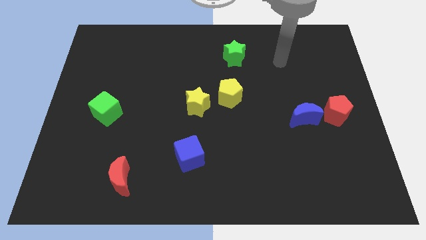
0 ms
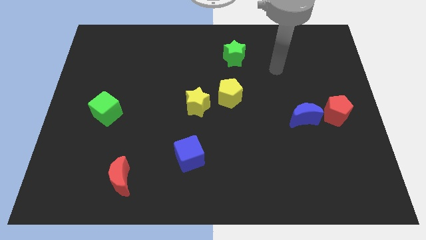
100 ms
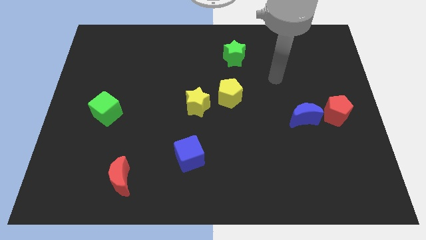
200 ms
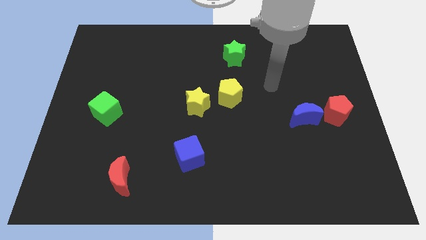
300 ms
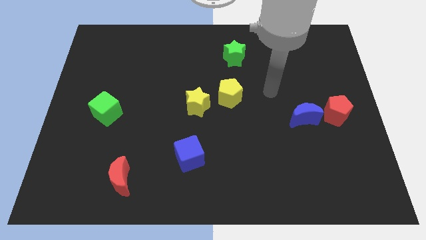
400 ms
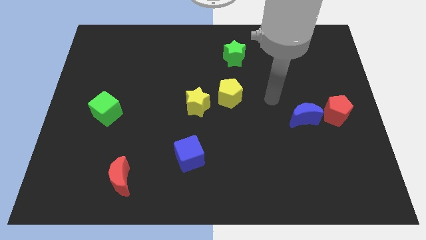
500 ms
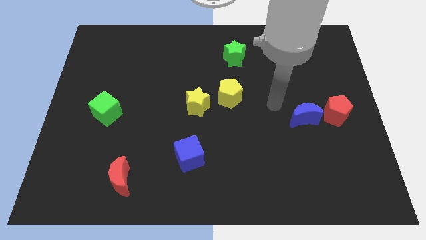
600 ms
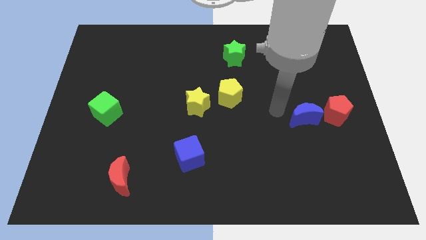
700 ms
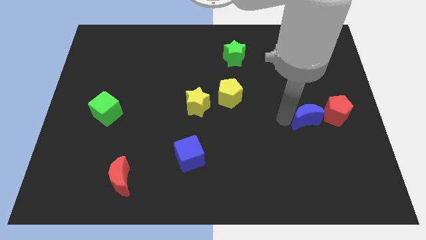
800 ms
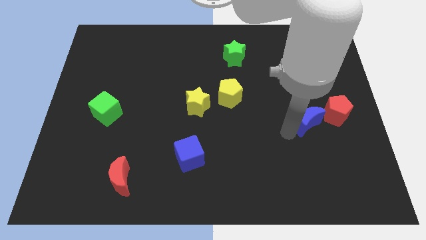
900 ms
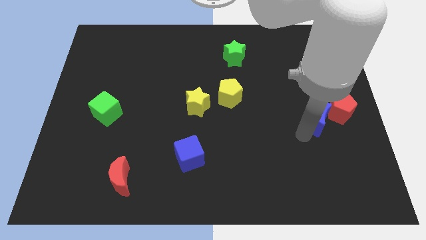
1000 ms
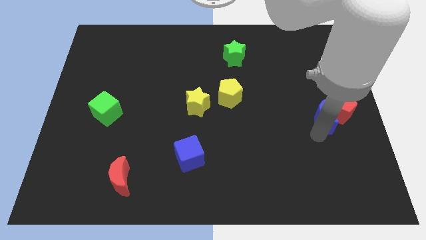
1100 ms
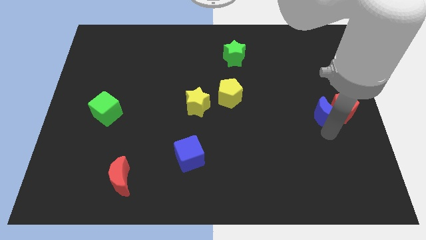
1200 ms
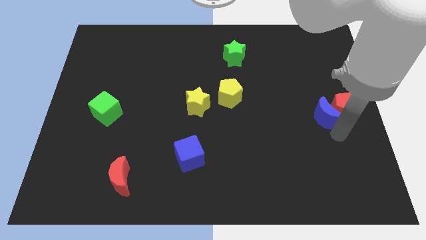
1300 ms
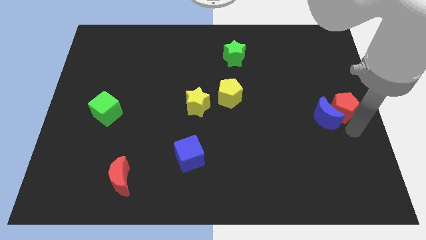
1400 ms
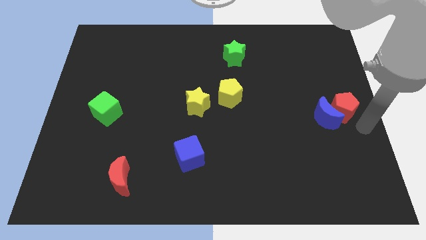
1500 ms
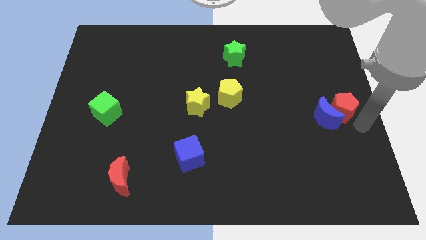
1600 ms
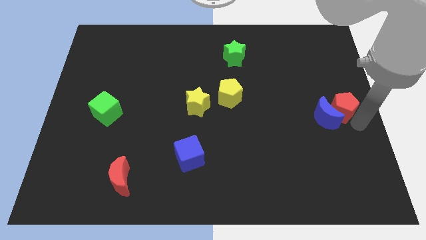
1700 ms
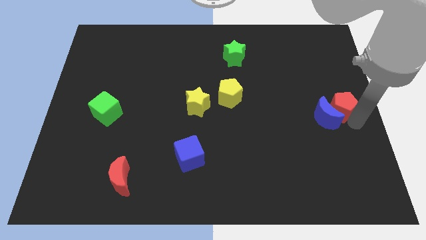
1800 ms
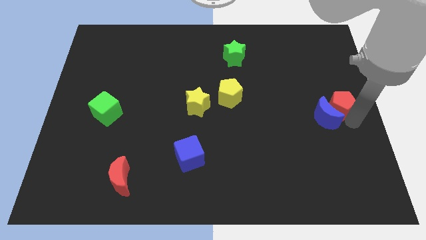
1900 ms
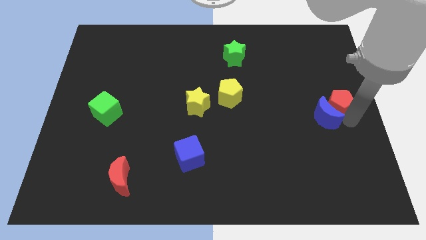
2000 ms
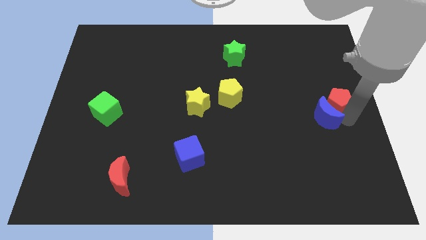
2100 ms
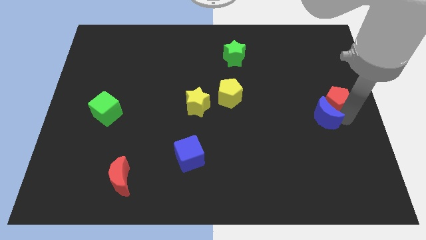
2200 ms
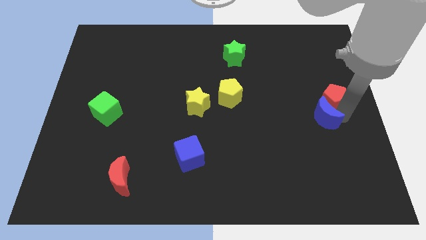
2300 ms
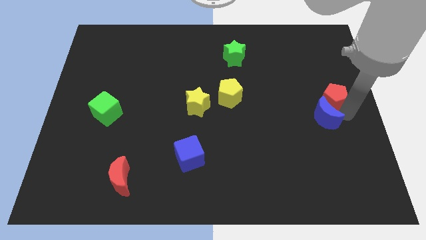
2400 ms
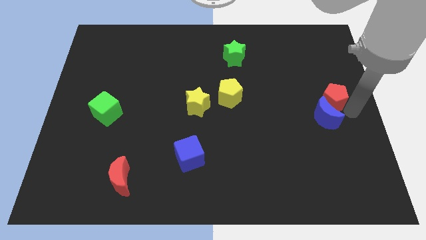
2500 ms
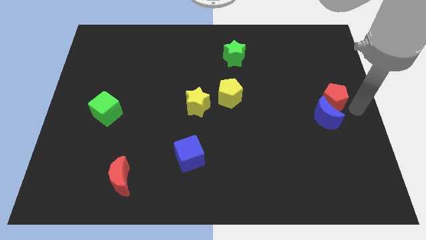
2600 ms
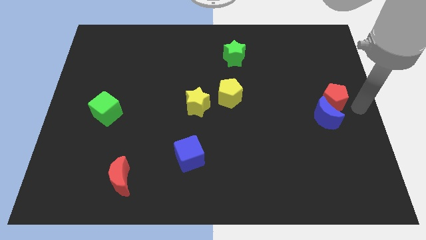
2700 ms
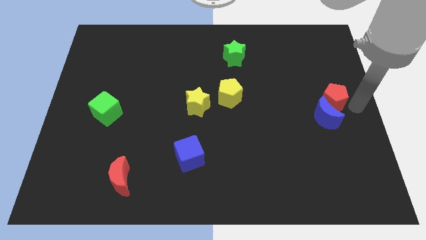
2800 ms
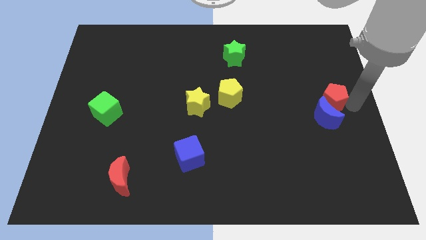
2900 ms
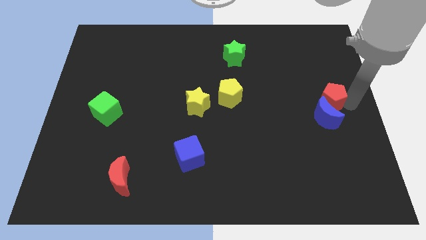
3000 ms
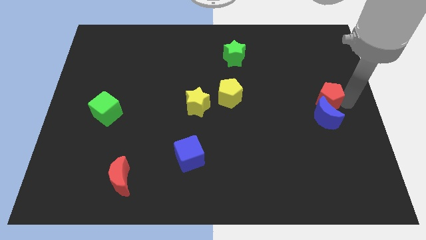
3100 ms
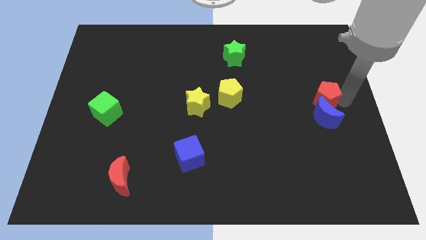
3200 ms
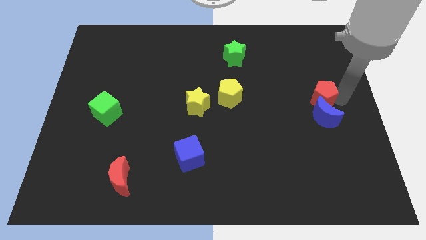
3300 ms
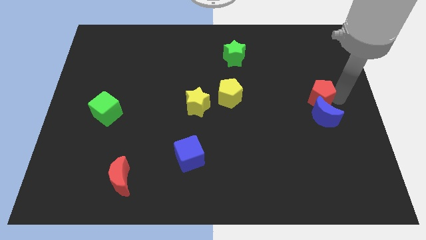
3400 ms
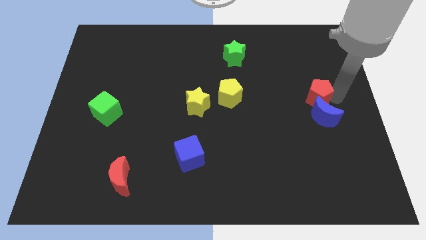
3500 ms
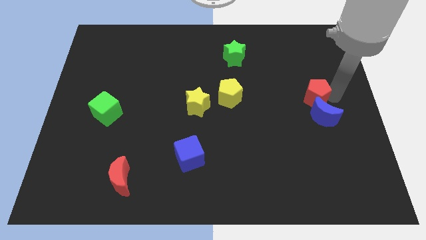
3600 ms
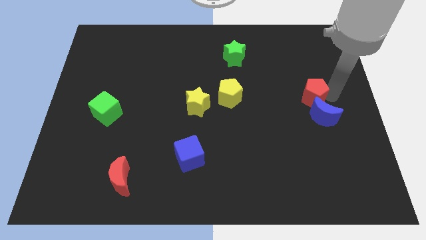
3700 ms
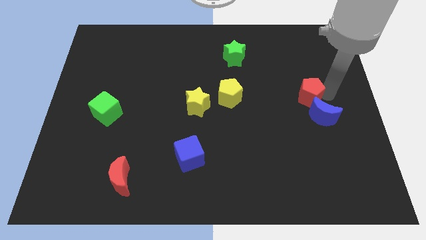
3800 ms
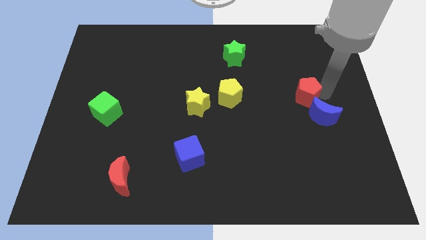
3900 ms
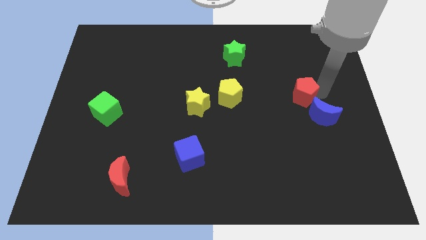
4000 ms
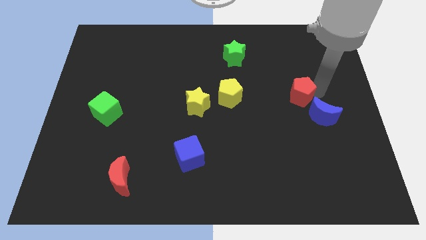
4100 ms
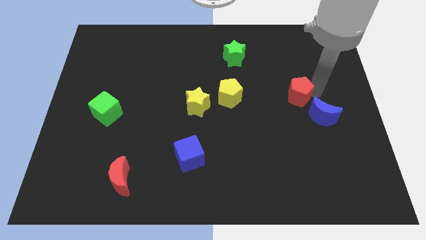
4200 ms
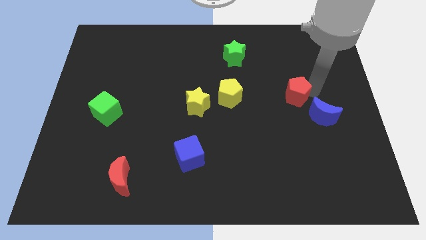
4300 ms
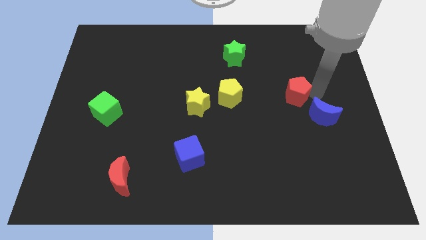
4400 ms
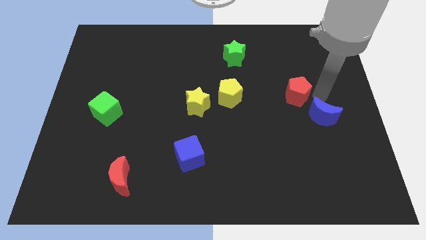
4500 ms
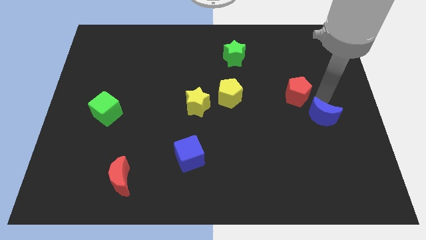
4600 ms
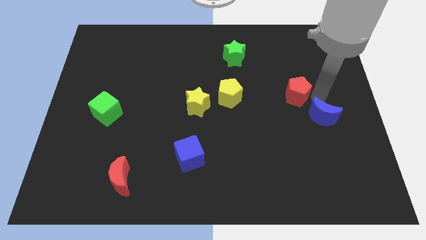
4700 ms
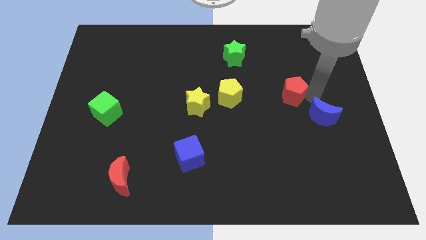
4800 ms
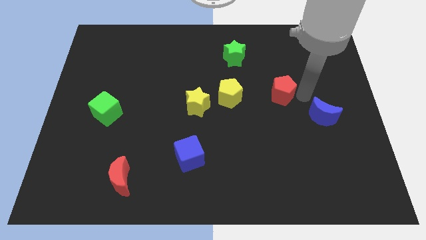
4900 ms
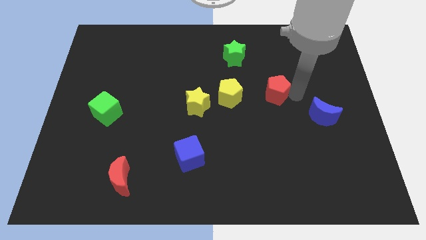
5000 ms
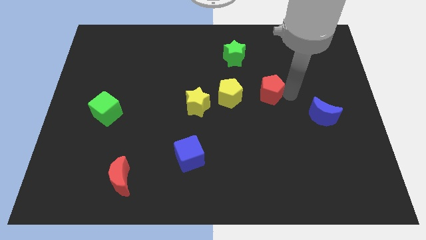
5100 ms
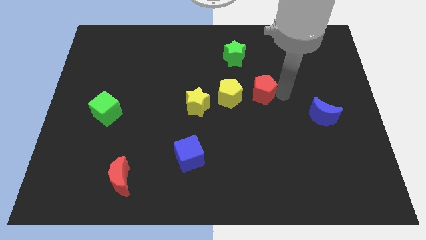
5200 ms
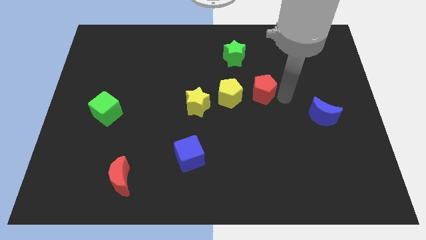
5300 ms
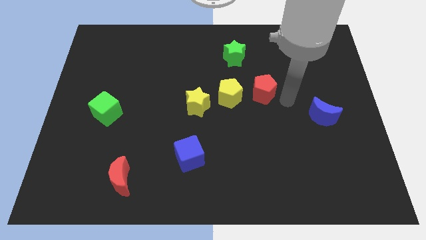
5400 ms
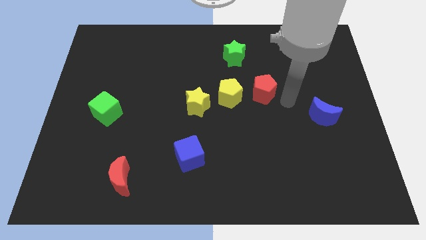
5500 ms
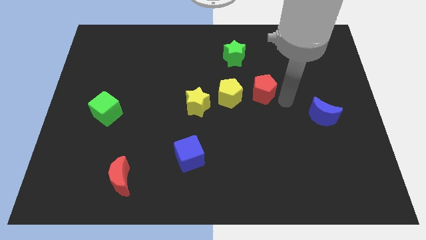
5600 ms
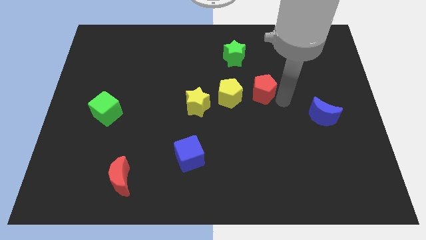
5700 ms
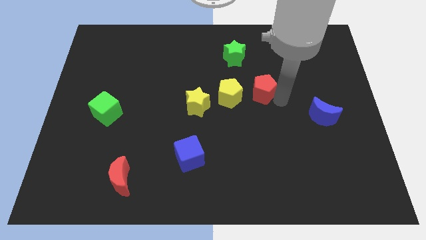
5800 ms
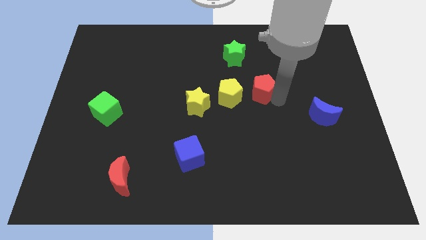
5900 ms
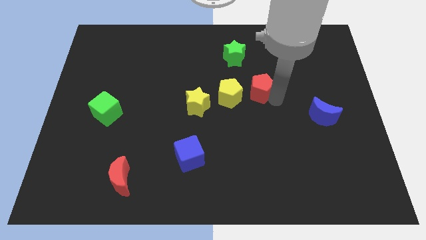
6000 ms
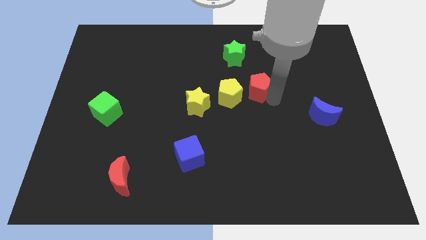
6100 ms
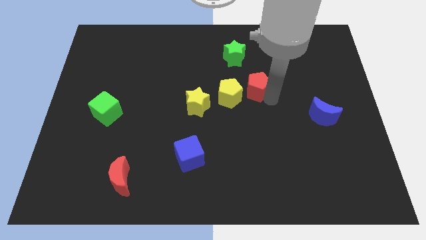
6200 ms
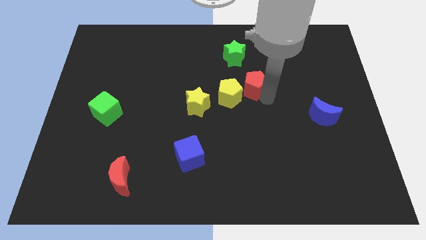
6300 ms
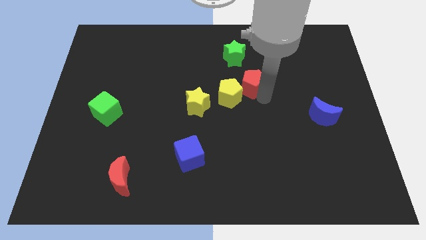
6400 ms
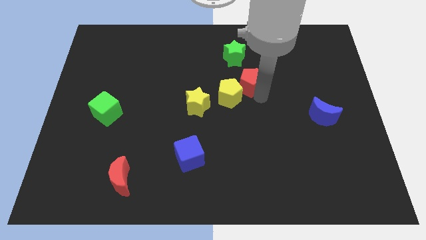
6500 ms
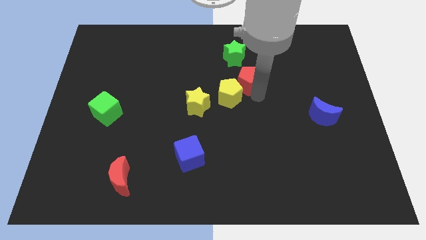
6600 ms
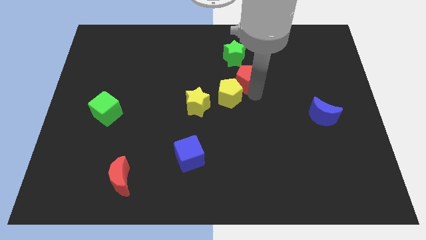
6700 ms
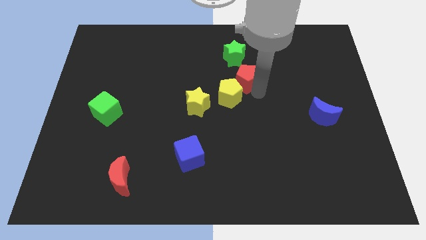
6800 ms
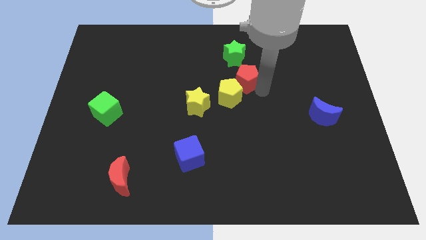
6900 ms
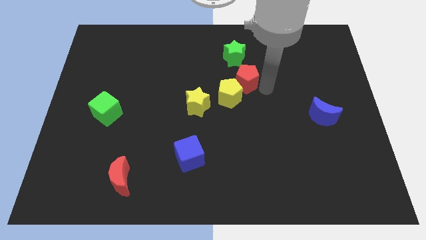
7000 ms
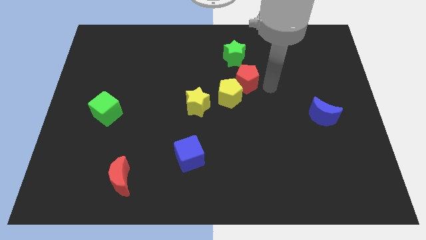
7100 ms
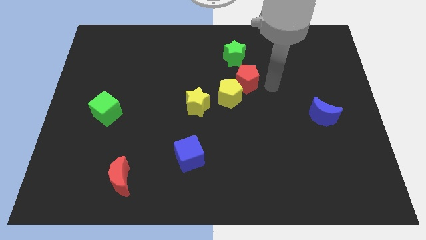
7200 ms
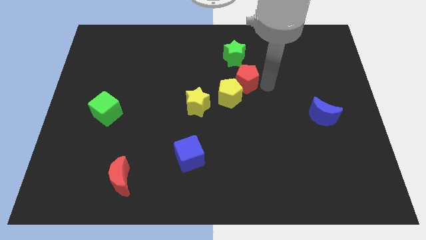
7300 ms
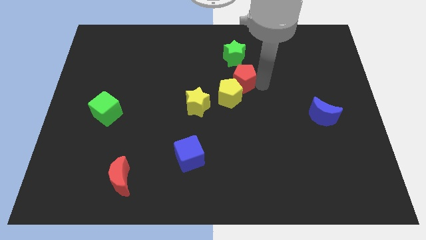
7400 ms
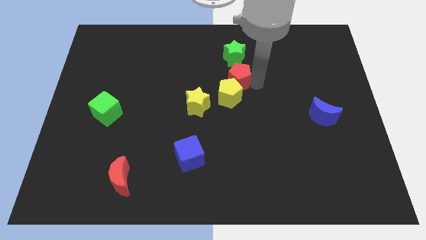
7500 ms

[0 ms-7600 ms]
move the red pentagon to the top right of the yellow star

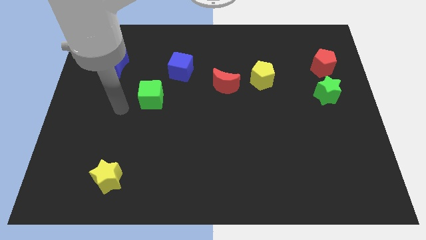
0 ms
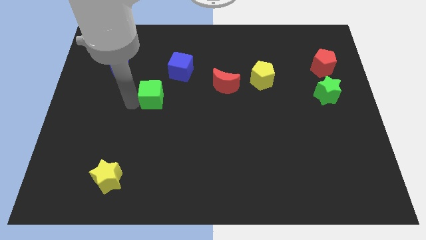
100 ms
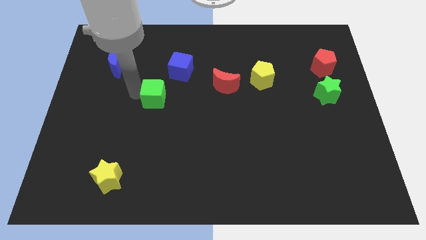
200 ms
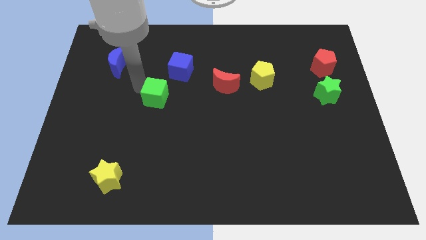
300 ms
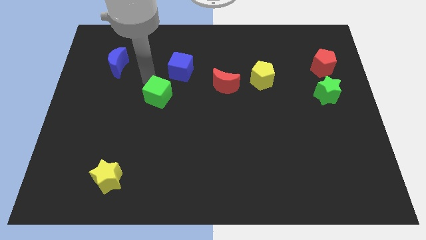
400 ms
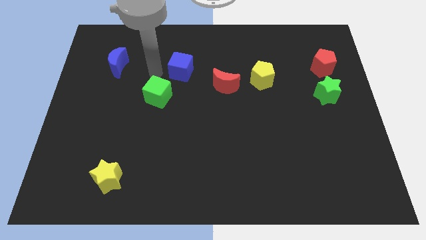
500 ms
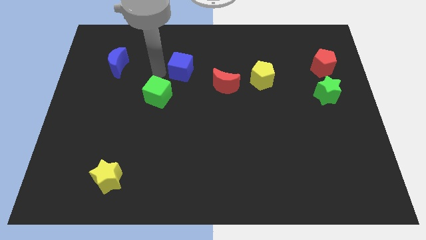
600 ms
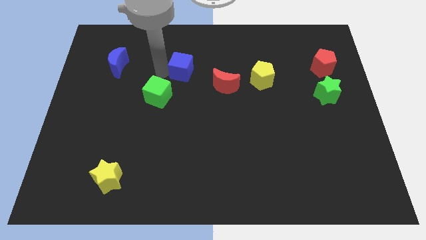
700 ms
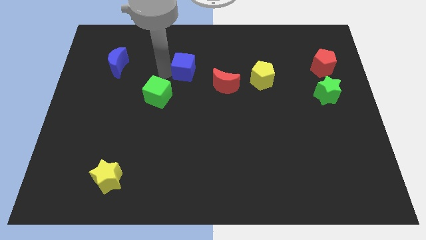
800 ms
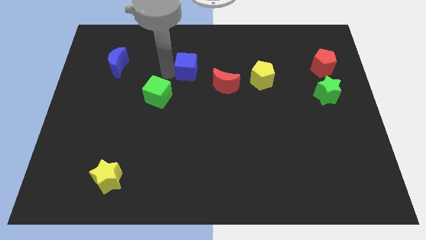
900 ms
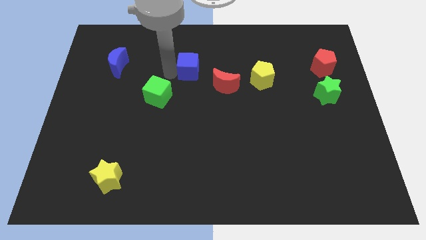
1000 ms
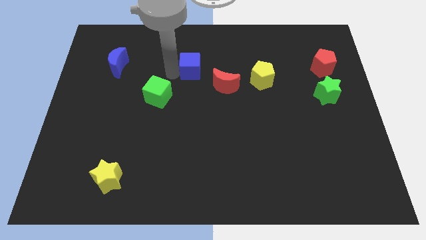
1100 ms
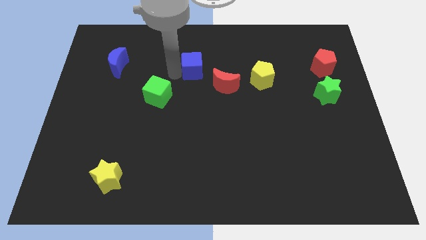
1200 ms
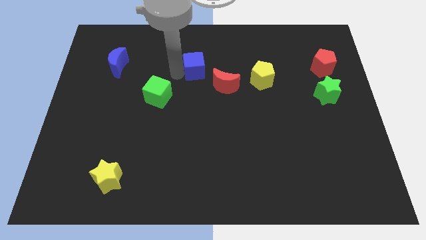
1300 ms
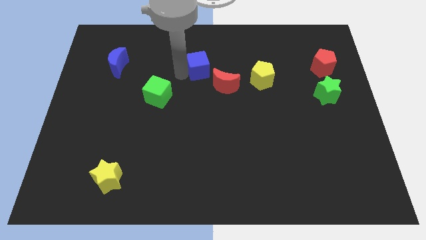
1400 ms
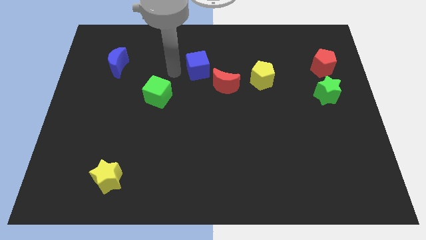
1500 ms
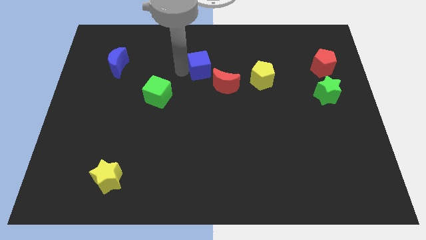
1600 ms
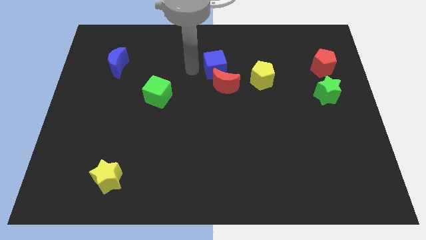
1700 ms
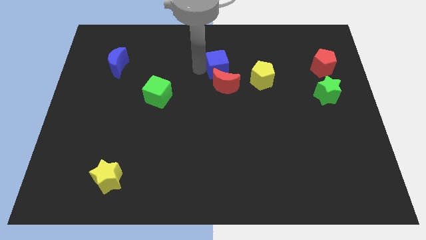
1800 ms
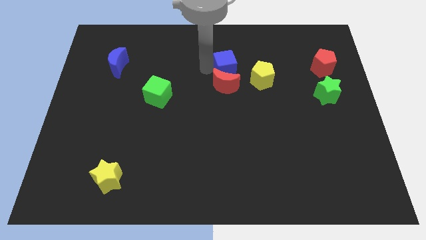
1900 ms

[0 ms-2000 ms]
put the blue cube to the top left side of the yellow pentagon
